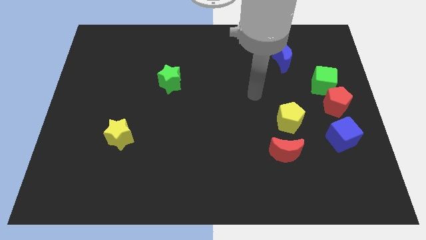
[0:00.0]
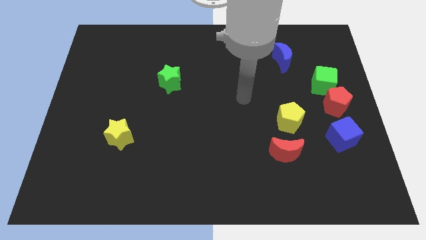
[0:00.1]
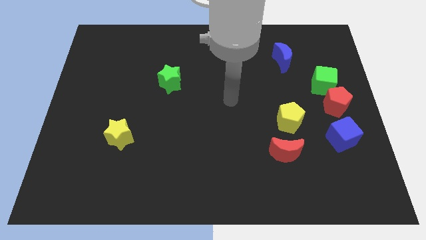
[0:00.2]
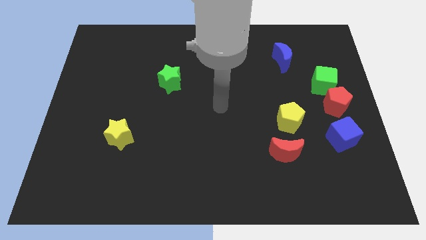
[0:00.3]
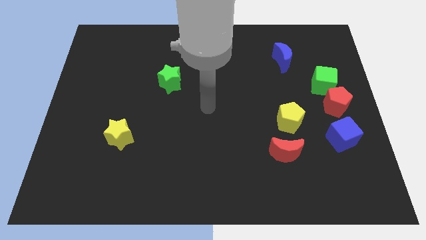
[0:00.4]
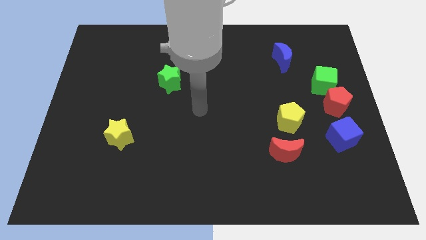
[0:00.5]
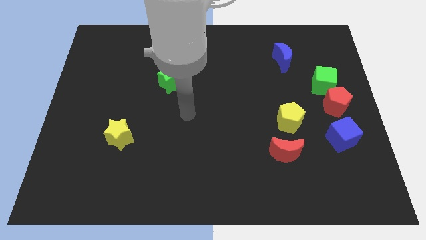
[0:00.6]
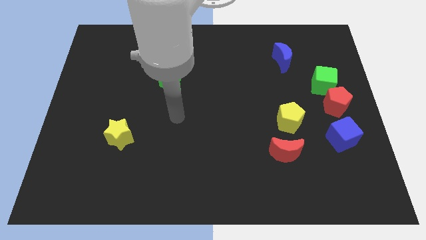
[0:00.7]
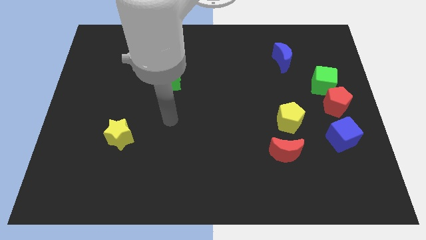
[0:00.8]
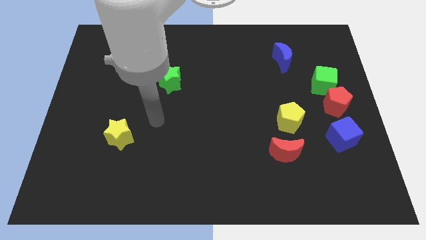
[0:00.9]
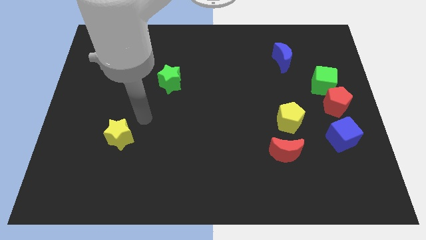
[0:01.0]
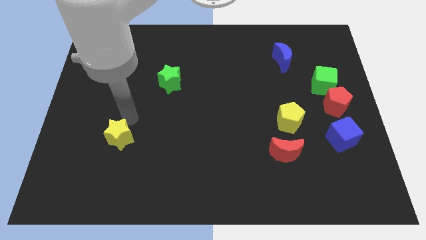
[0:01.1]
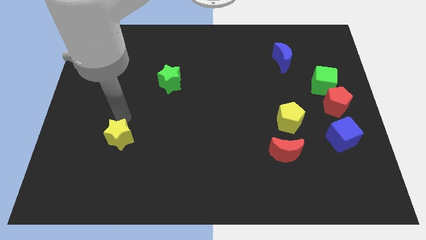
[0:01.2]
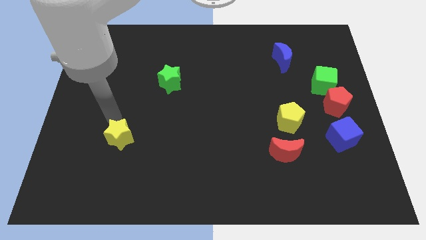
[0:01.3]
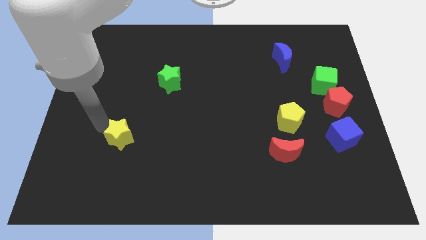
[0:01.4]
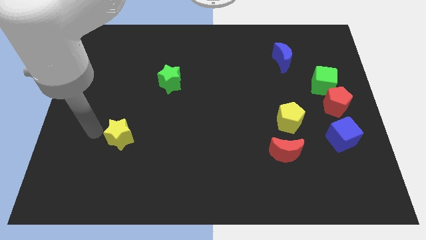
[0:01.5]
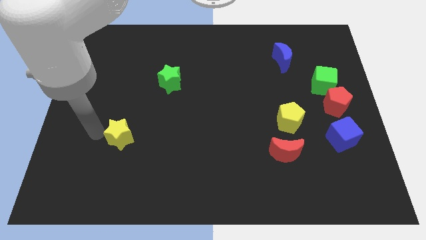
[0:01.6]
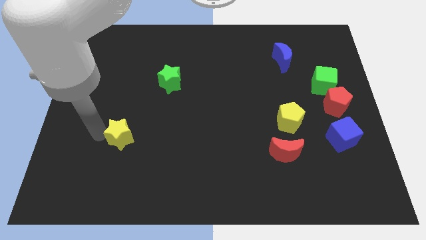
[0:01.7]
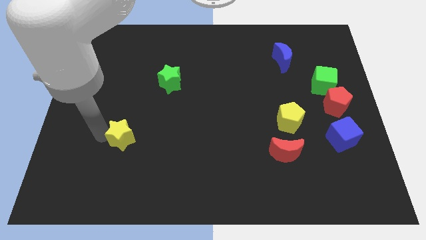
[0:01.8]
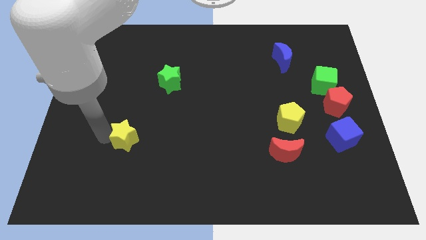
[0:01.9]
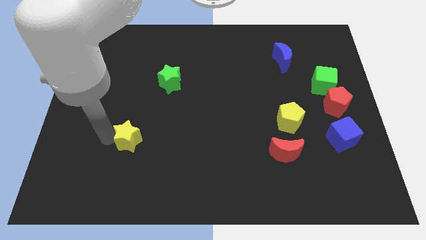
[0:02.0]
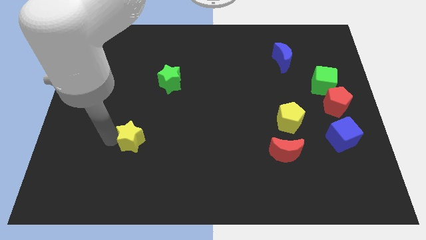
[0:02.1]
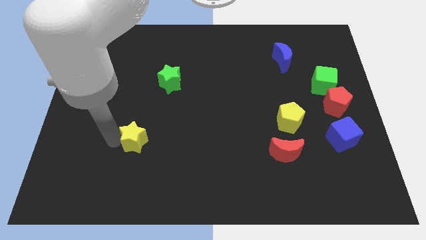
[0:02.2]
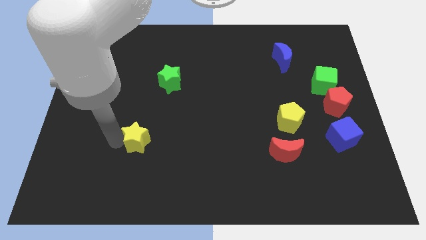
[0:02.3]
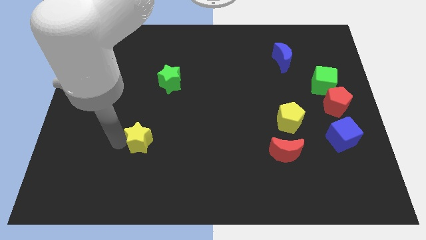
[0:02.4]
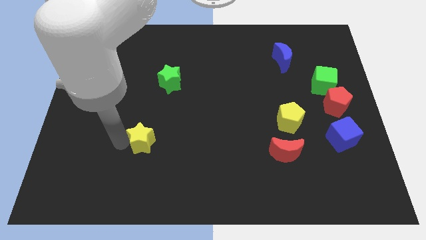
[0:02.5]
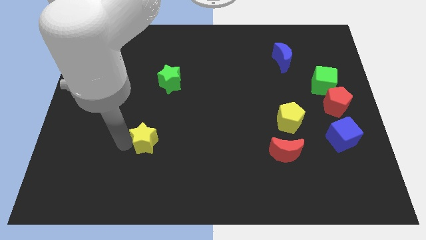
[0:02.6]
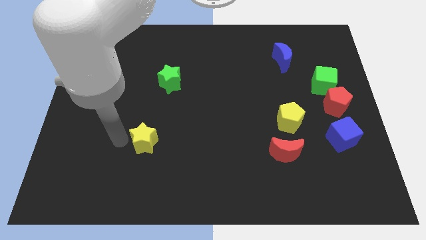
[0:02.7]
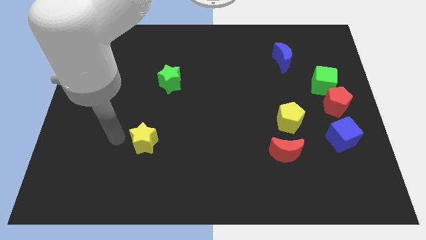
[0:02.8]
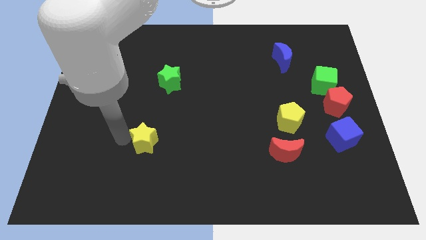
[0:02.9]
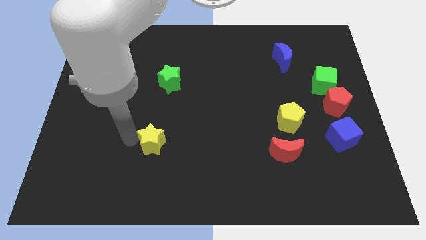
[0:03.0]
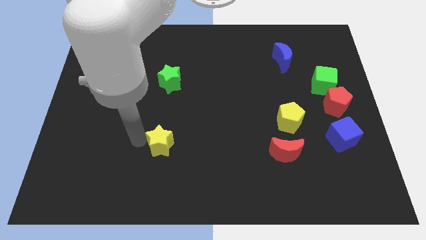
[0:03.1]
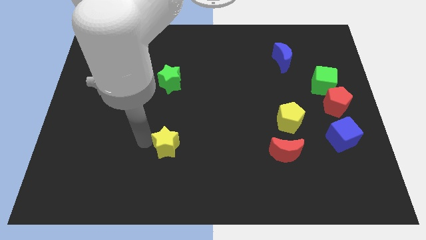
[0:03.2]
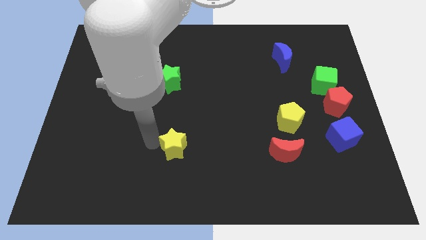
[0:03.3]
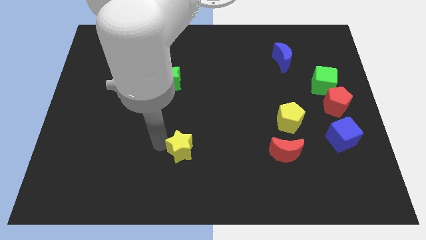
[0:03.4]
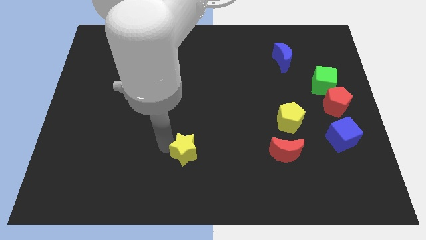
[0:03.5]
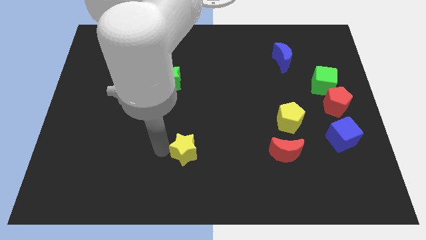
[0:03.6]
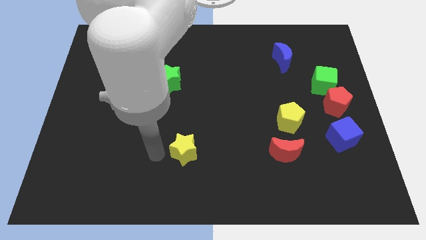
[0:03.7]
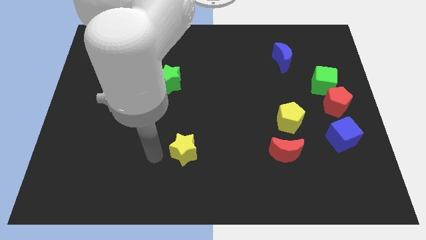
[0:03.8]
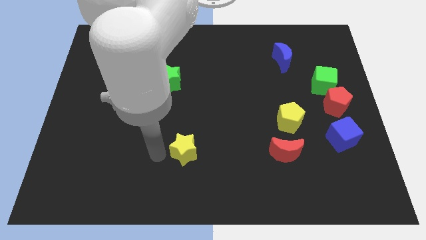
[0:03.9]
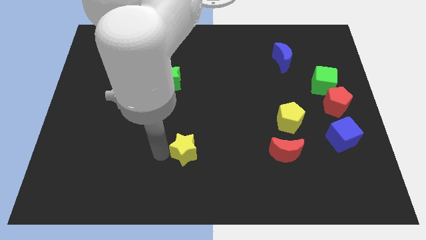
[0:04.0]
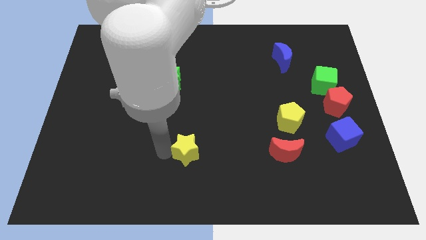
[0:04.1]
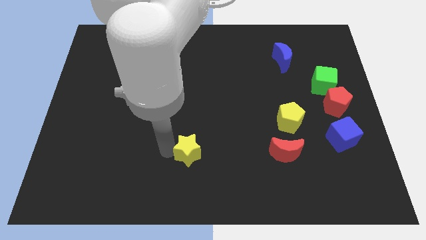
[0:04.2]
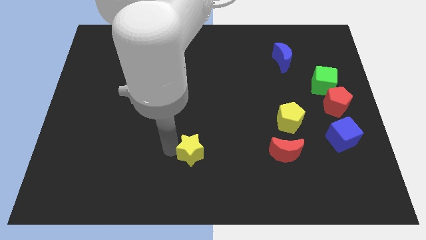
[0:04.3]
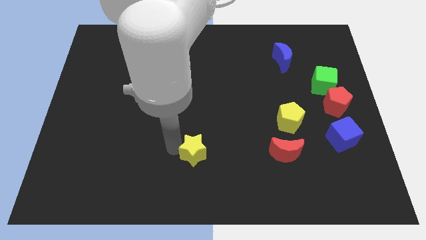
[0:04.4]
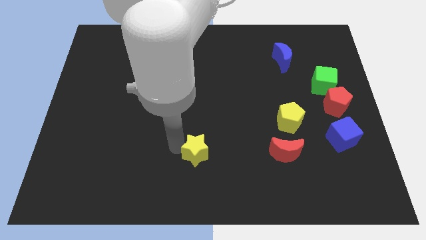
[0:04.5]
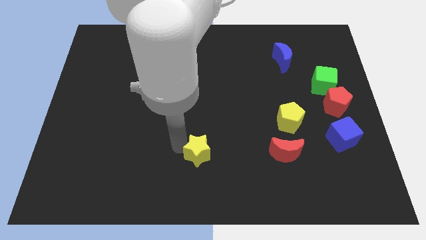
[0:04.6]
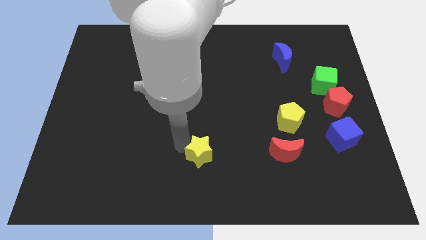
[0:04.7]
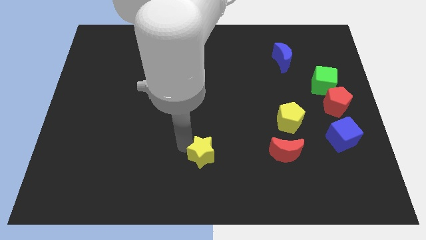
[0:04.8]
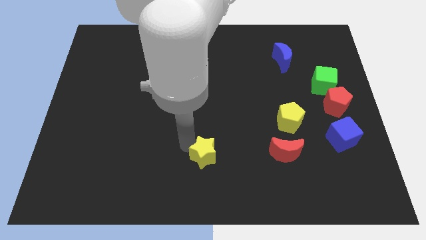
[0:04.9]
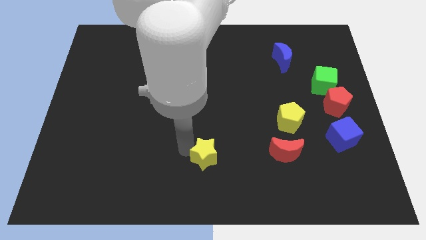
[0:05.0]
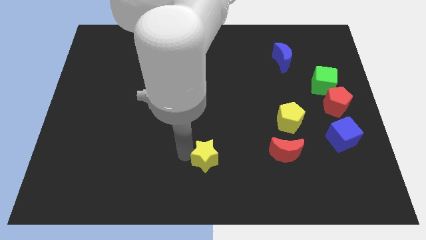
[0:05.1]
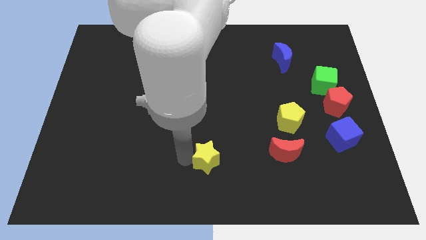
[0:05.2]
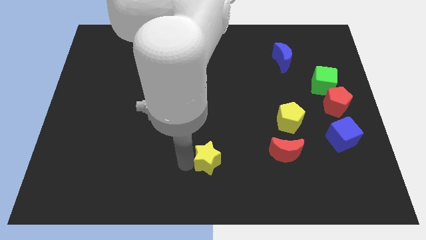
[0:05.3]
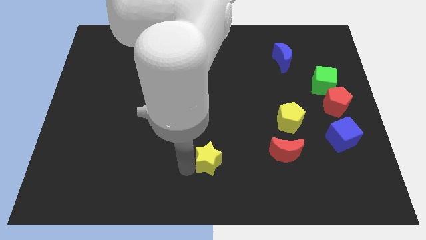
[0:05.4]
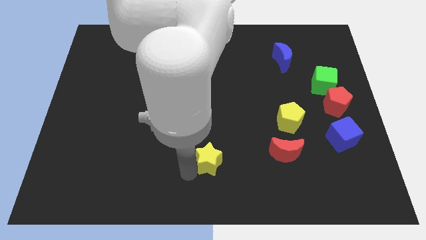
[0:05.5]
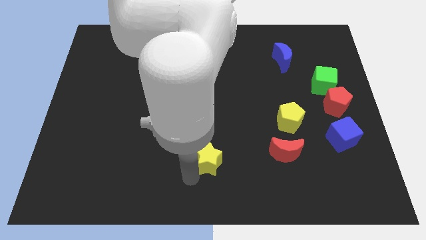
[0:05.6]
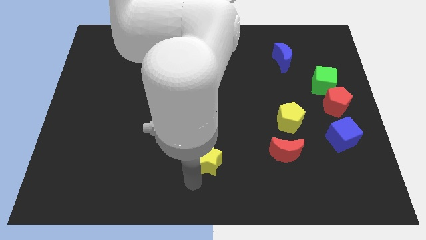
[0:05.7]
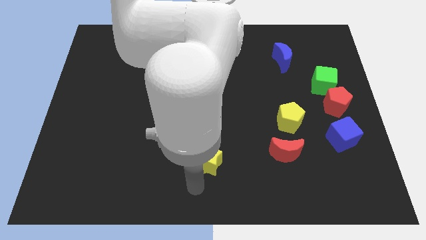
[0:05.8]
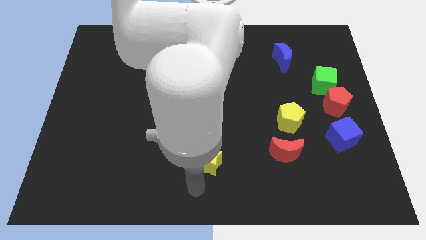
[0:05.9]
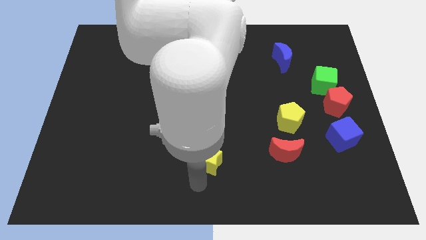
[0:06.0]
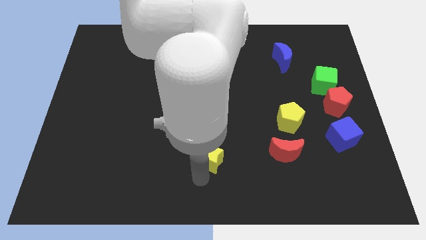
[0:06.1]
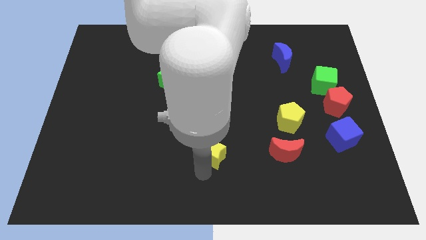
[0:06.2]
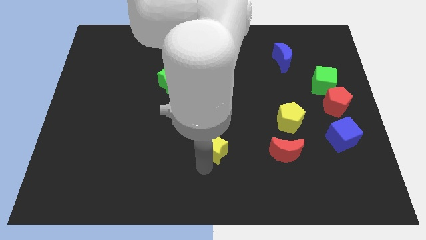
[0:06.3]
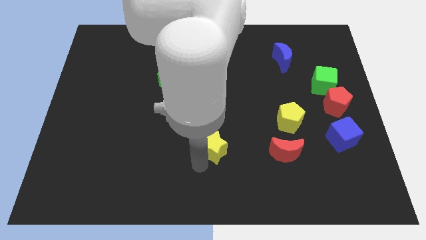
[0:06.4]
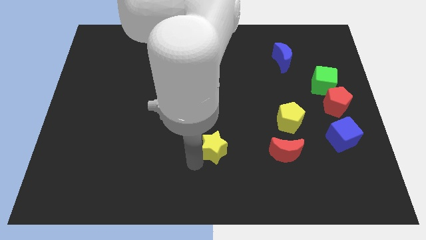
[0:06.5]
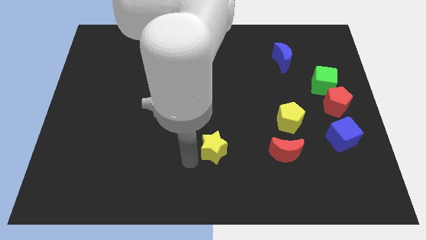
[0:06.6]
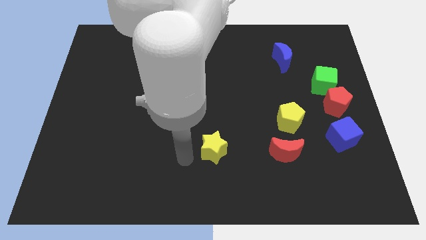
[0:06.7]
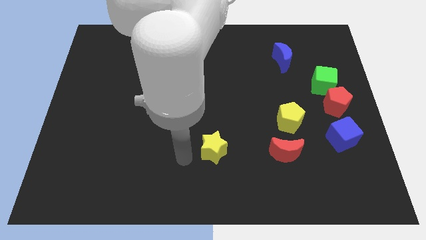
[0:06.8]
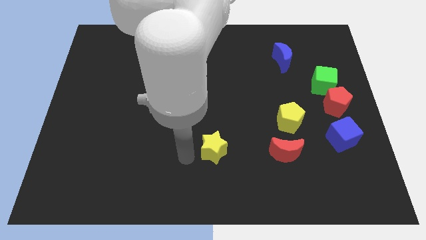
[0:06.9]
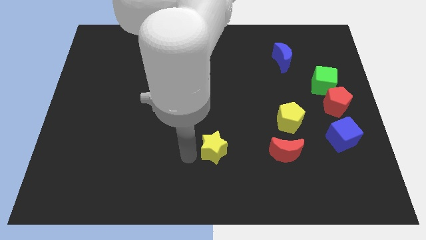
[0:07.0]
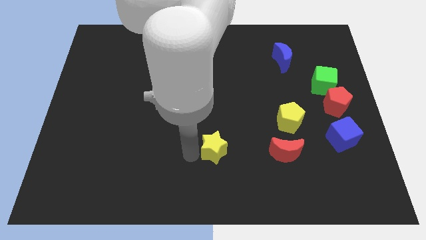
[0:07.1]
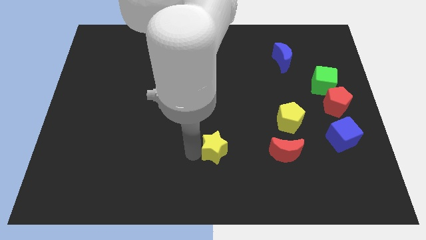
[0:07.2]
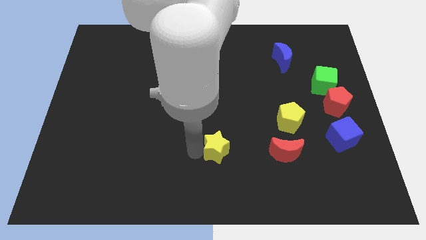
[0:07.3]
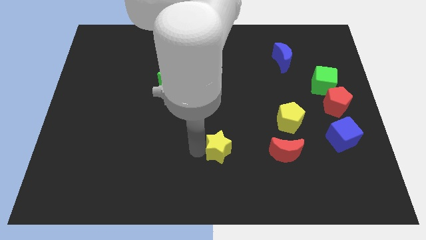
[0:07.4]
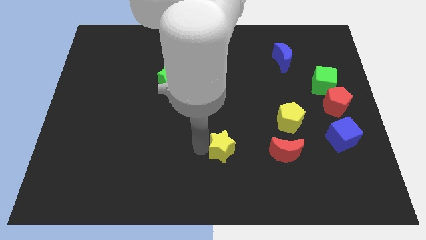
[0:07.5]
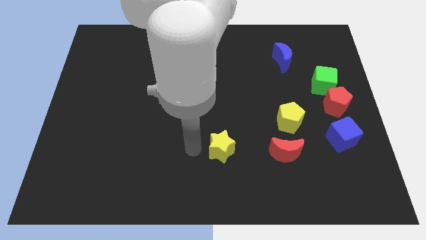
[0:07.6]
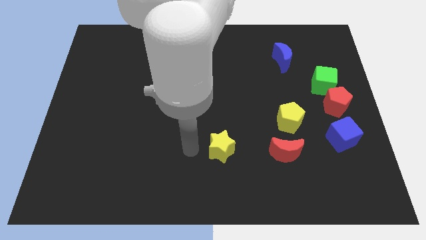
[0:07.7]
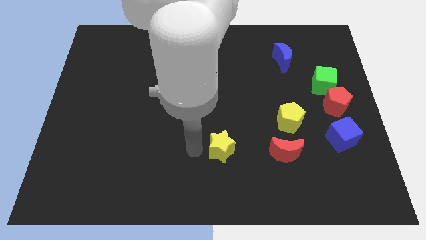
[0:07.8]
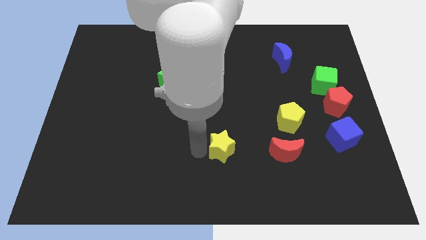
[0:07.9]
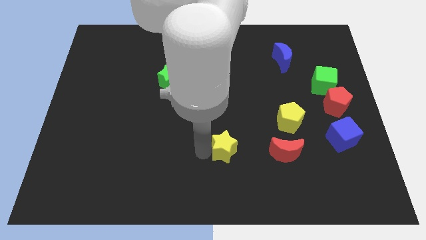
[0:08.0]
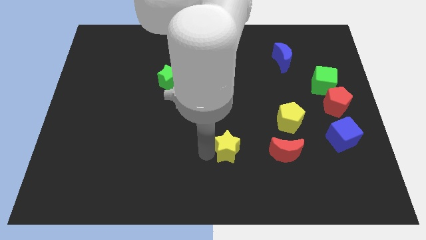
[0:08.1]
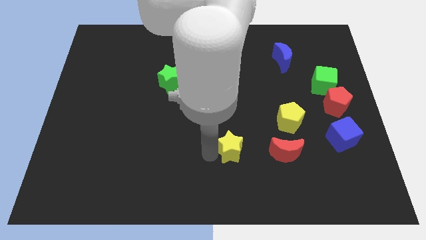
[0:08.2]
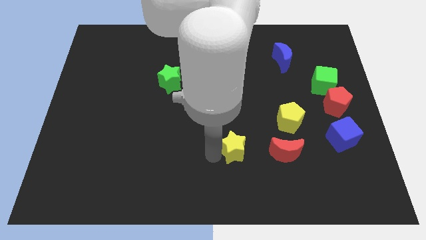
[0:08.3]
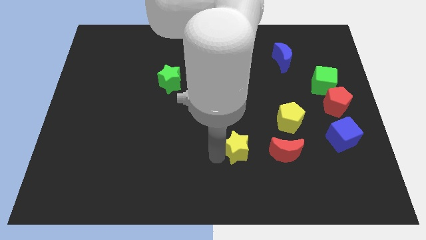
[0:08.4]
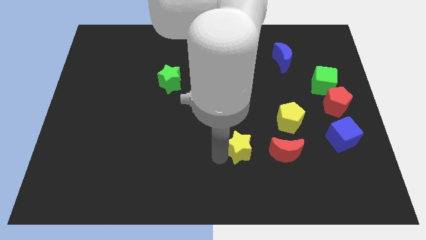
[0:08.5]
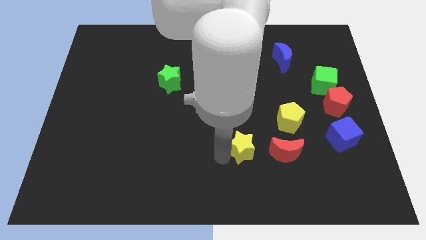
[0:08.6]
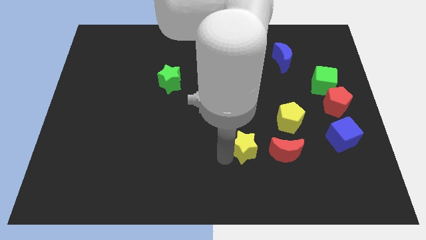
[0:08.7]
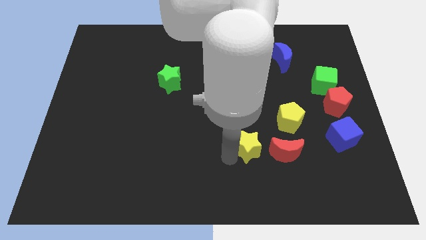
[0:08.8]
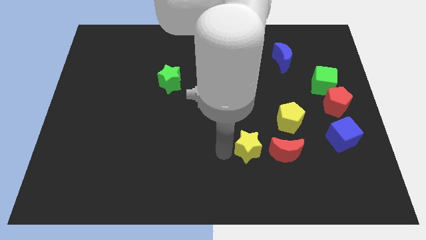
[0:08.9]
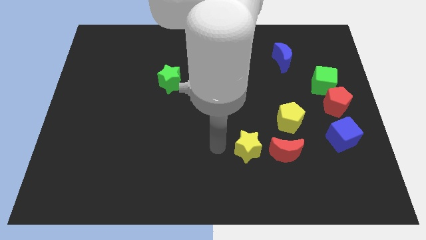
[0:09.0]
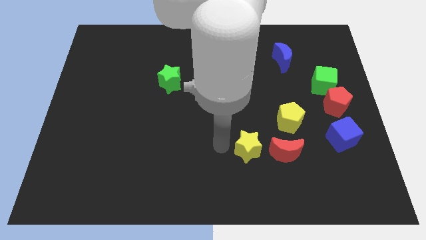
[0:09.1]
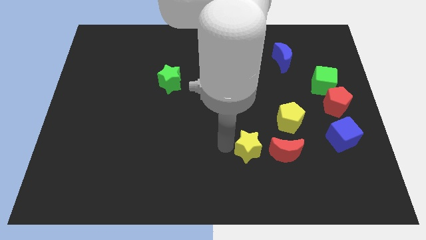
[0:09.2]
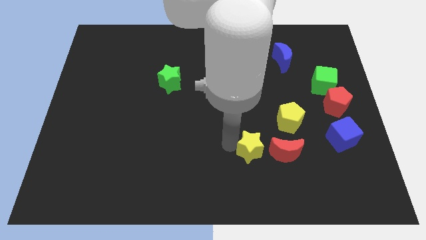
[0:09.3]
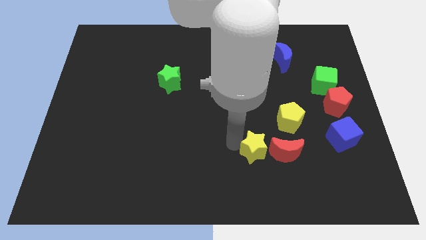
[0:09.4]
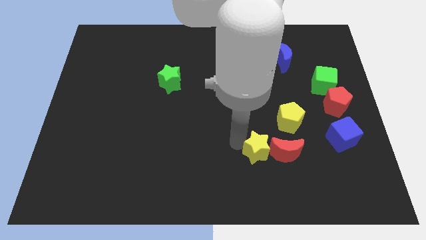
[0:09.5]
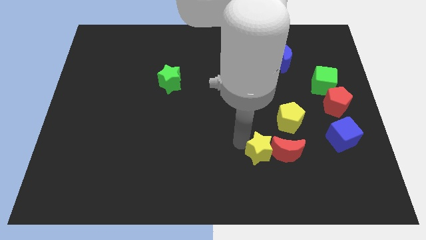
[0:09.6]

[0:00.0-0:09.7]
move the yellow star towards the red moon
